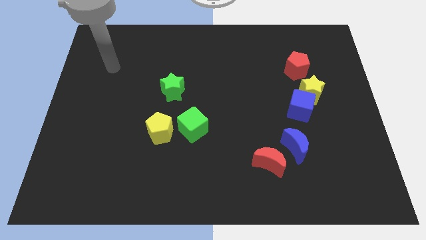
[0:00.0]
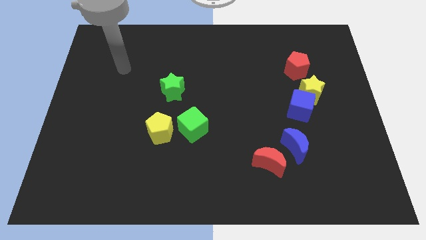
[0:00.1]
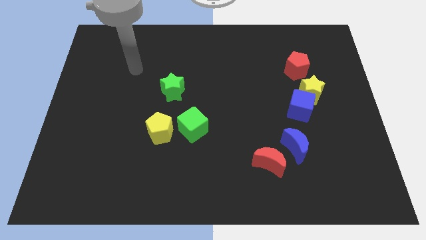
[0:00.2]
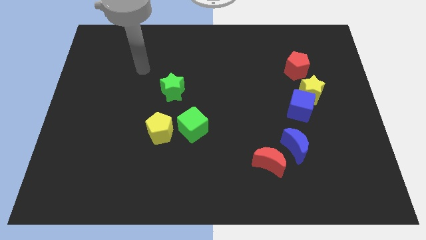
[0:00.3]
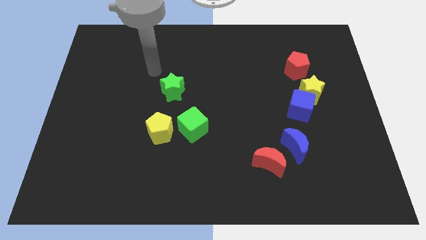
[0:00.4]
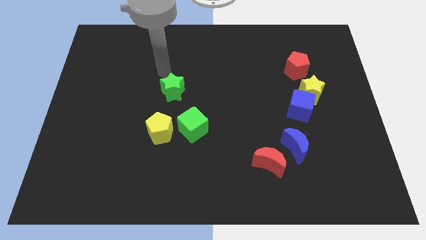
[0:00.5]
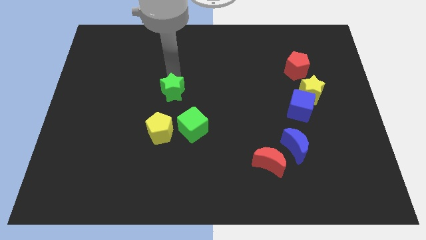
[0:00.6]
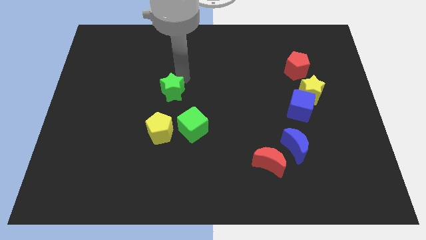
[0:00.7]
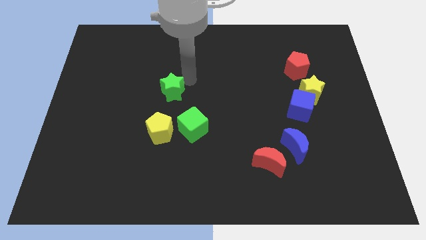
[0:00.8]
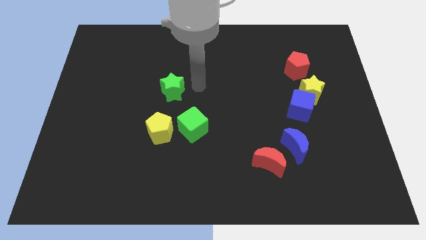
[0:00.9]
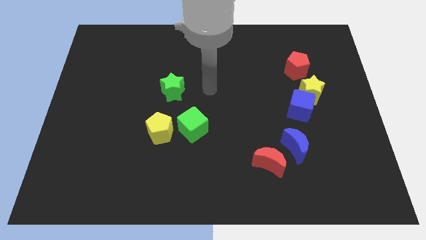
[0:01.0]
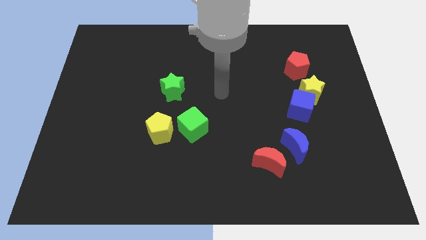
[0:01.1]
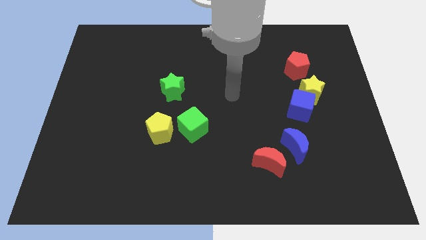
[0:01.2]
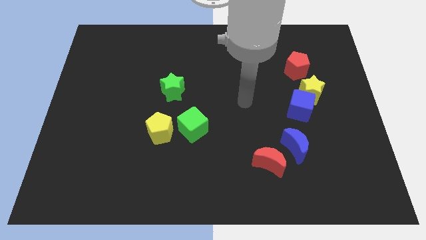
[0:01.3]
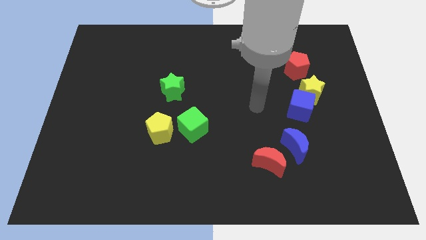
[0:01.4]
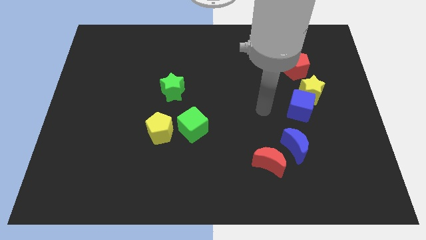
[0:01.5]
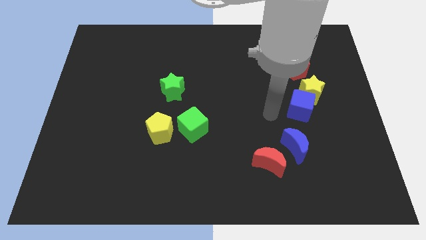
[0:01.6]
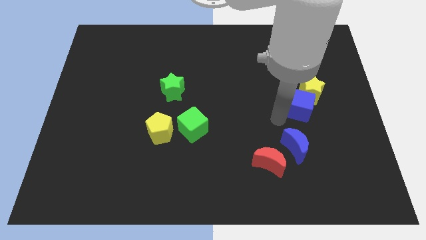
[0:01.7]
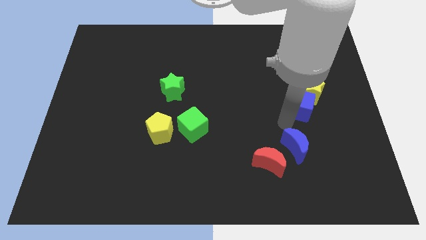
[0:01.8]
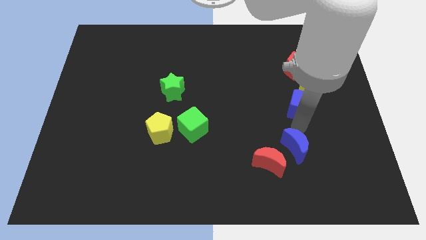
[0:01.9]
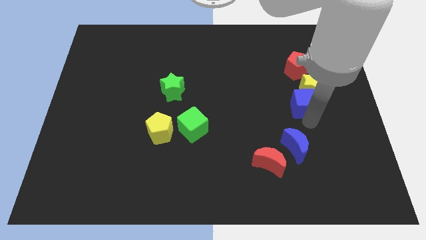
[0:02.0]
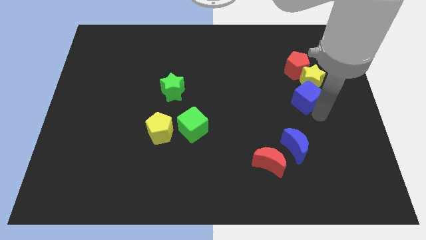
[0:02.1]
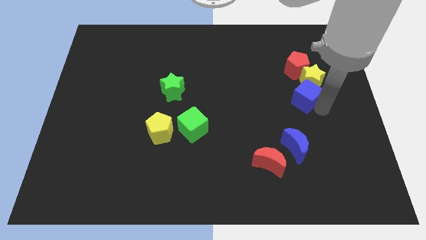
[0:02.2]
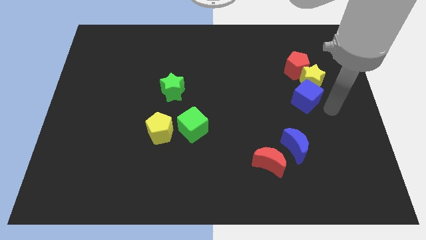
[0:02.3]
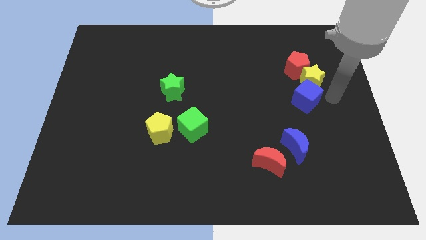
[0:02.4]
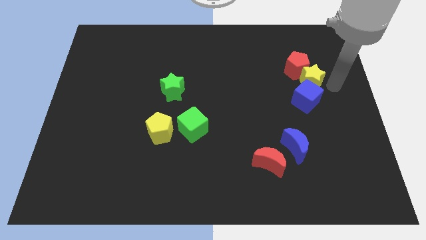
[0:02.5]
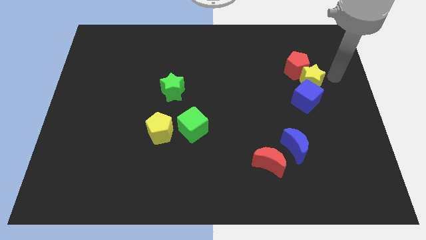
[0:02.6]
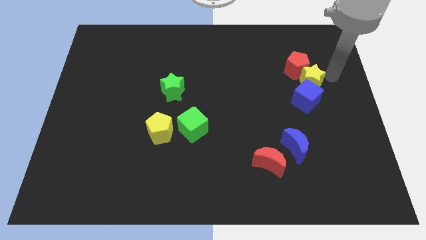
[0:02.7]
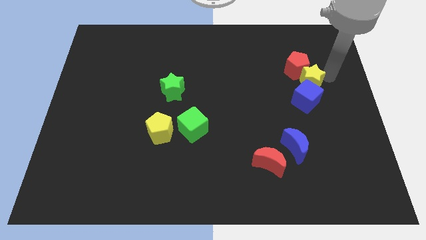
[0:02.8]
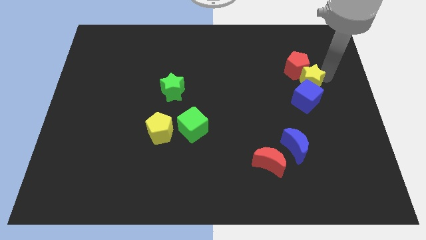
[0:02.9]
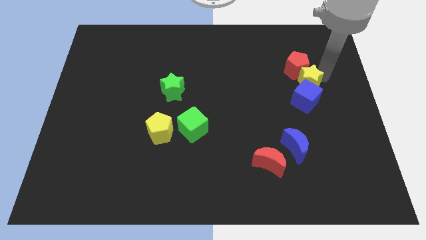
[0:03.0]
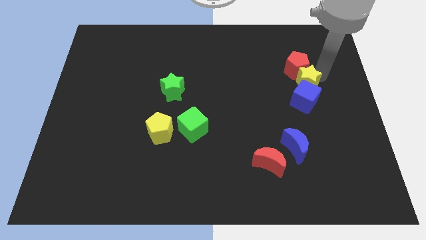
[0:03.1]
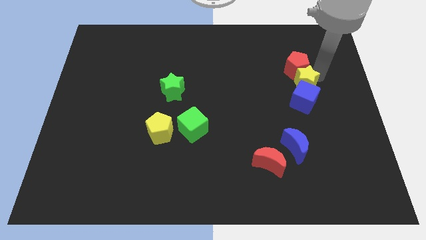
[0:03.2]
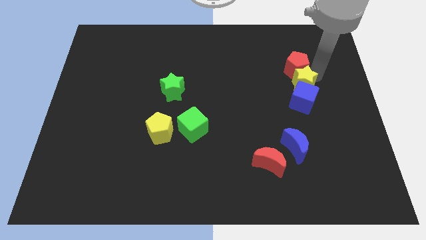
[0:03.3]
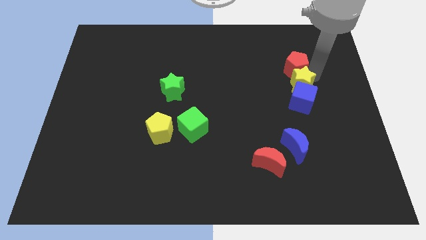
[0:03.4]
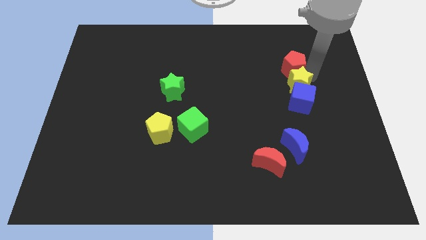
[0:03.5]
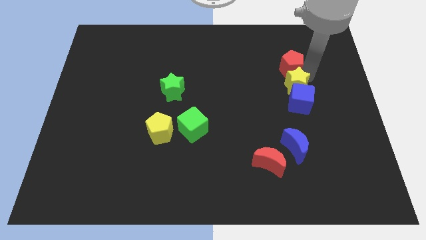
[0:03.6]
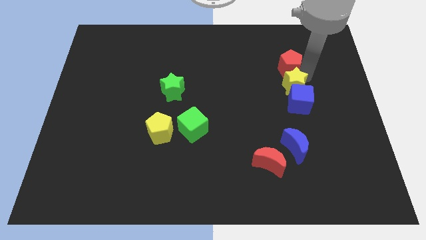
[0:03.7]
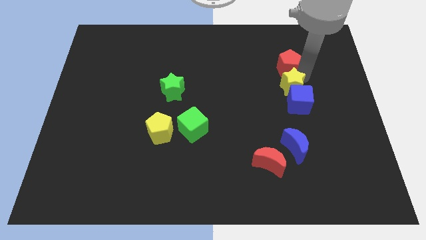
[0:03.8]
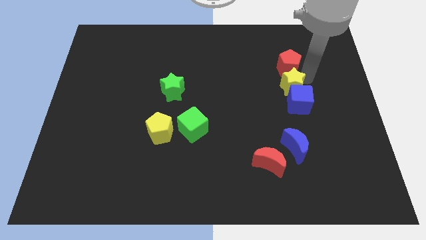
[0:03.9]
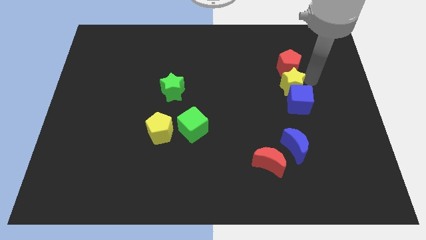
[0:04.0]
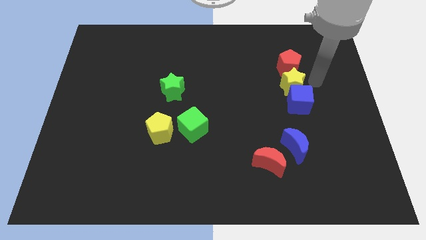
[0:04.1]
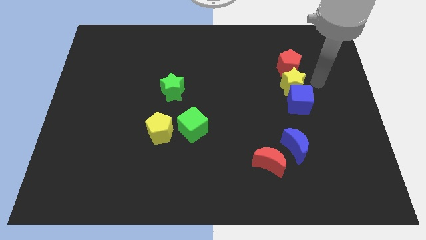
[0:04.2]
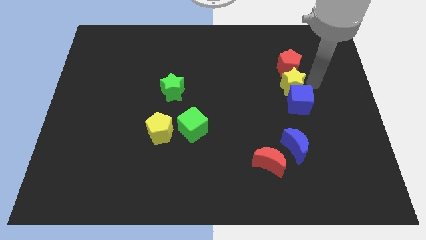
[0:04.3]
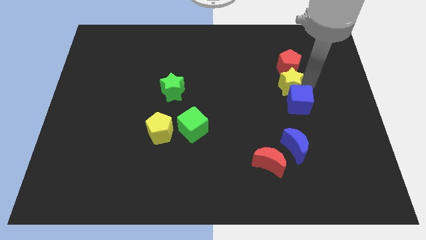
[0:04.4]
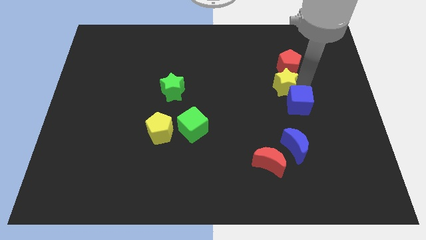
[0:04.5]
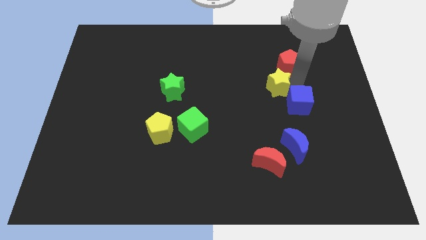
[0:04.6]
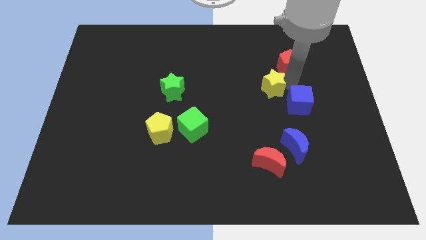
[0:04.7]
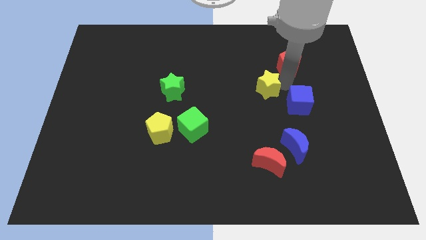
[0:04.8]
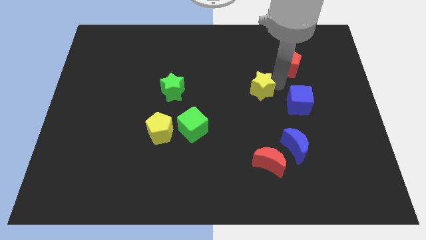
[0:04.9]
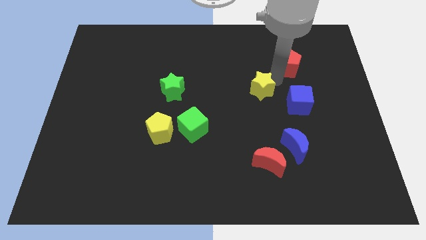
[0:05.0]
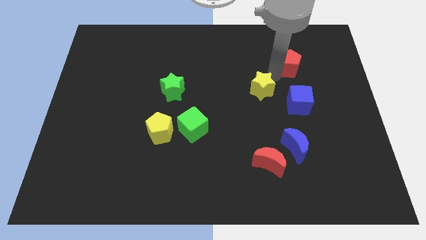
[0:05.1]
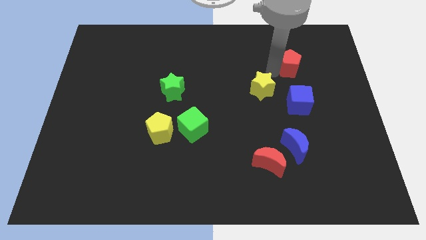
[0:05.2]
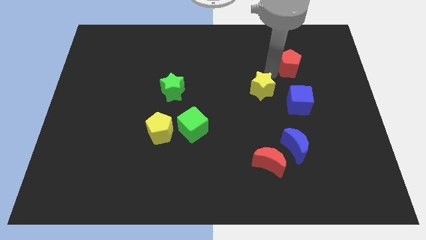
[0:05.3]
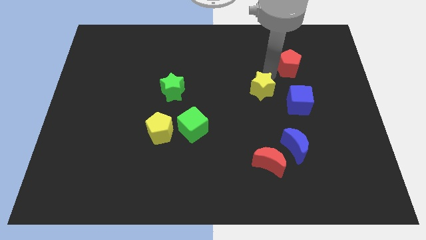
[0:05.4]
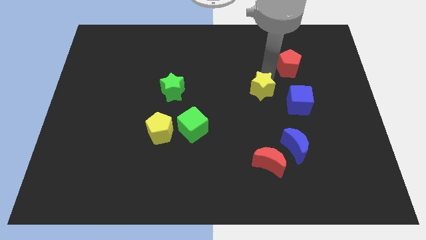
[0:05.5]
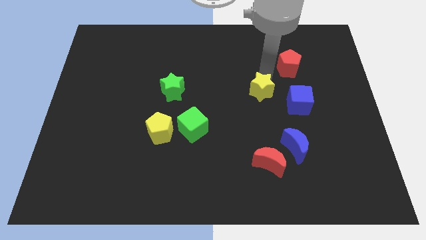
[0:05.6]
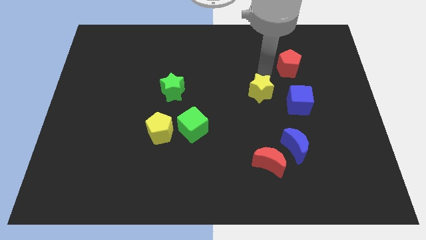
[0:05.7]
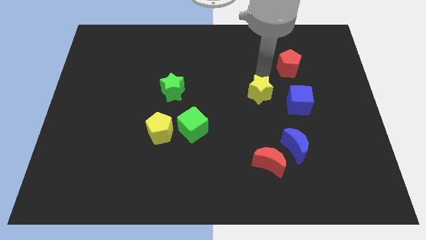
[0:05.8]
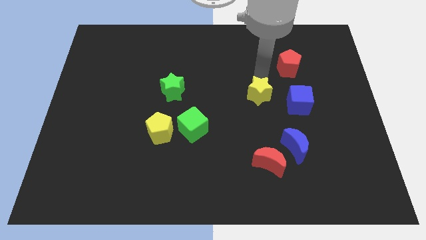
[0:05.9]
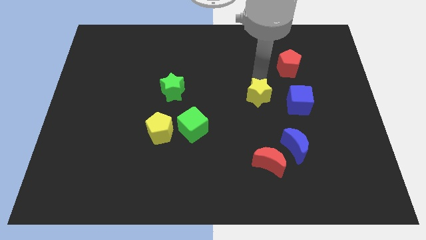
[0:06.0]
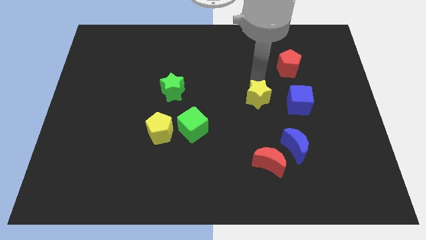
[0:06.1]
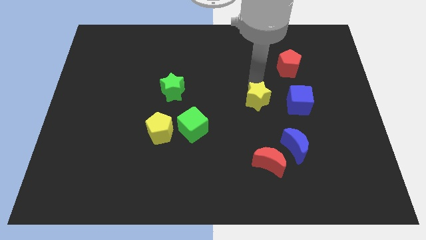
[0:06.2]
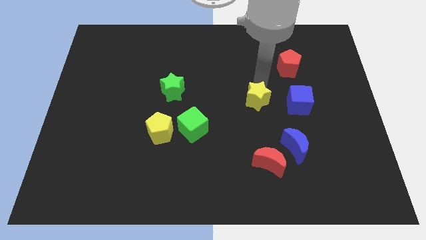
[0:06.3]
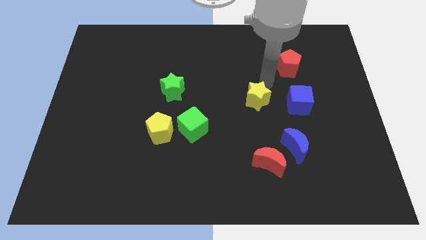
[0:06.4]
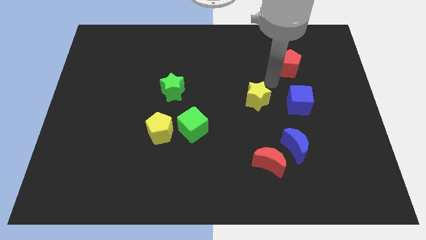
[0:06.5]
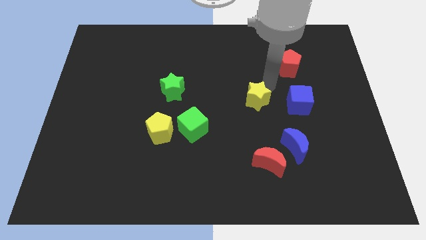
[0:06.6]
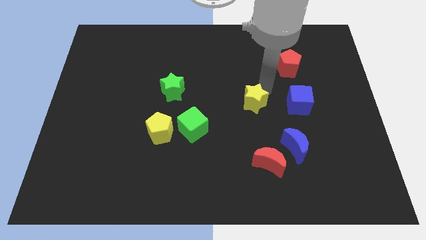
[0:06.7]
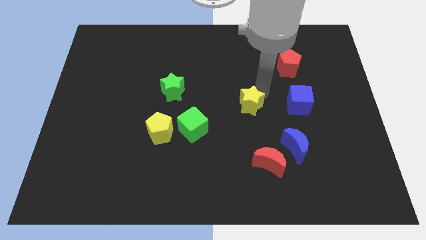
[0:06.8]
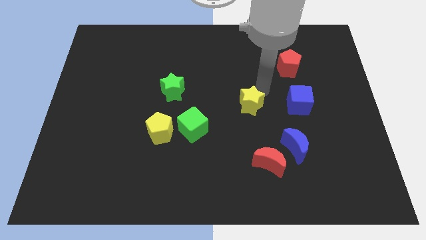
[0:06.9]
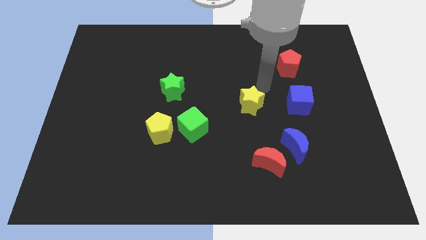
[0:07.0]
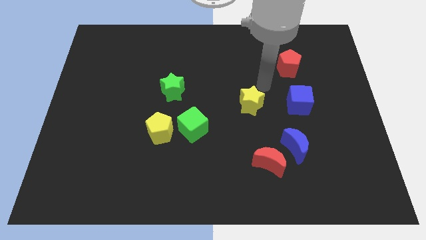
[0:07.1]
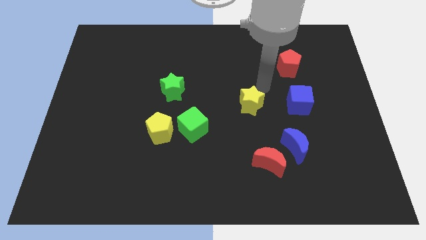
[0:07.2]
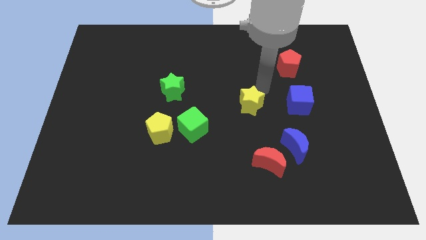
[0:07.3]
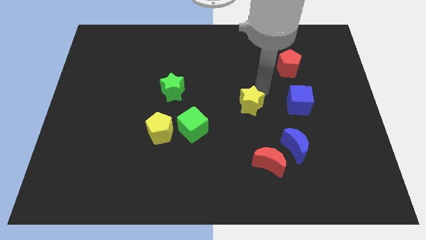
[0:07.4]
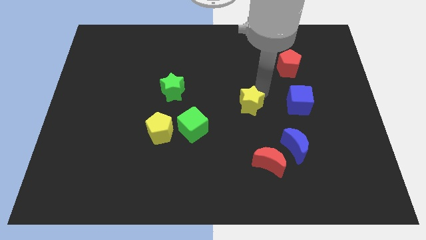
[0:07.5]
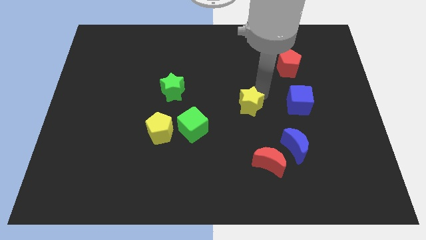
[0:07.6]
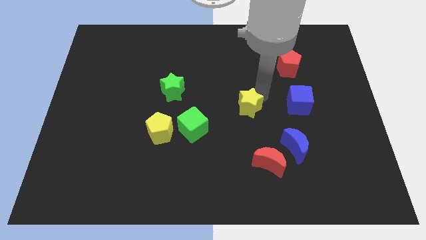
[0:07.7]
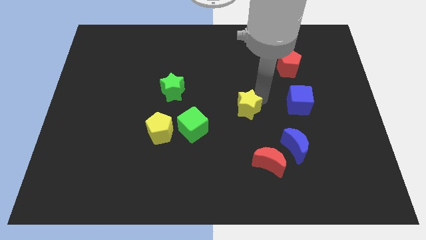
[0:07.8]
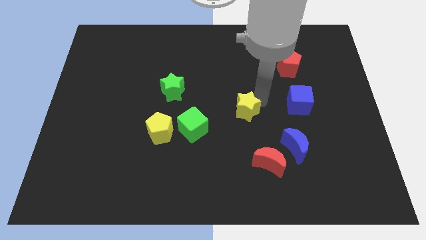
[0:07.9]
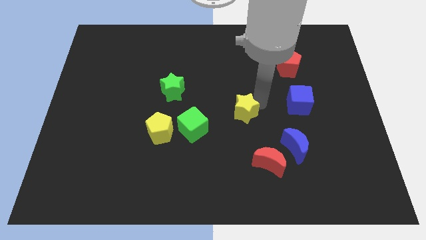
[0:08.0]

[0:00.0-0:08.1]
put the yellow star to the right of the green cube
